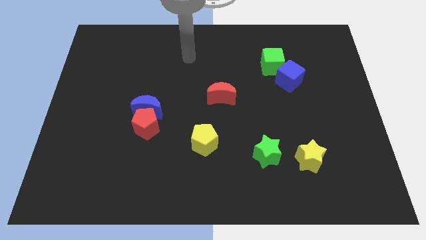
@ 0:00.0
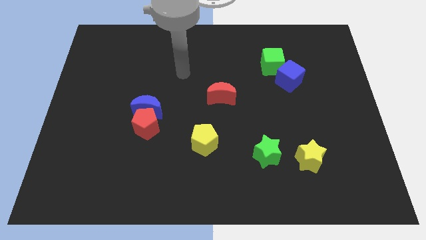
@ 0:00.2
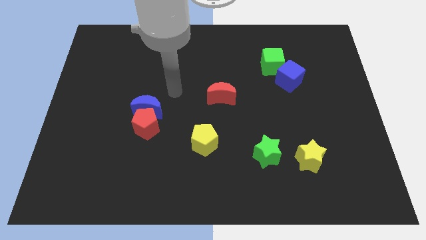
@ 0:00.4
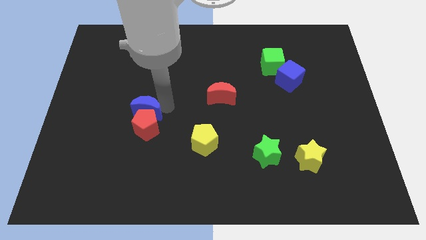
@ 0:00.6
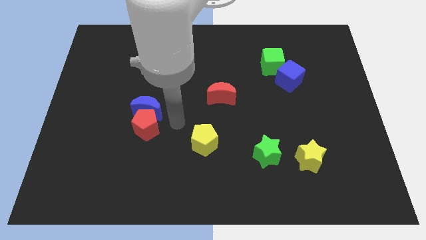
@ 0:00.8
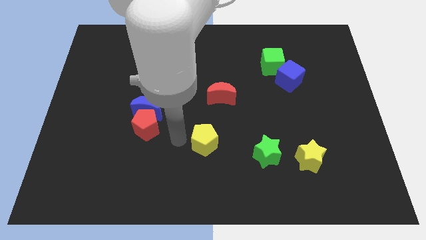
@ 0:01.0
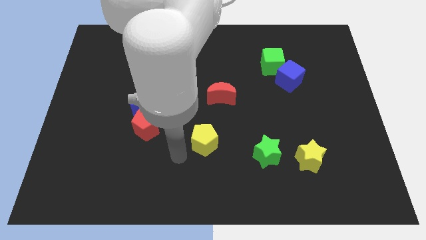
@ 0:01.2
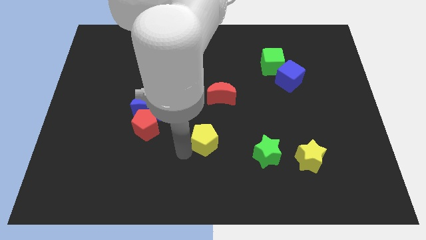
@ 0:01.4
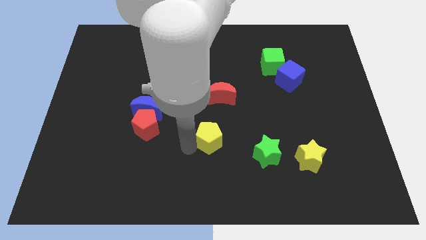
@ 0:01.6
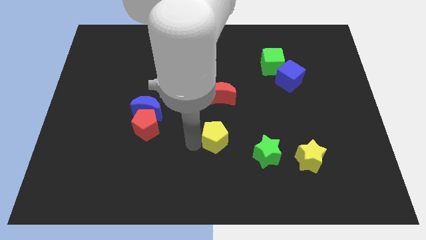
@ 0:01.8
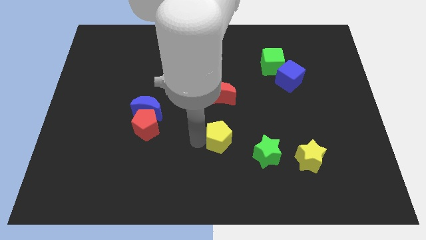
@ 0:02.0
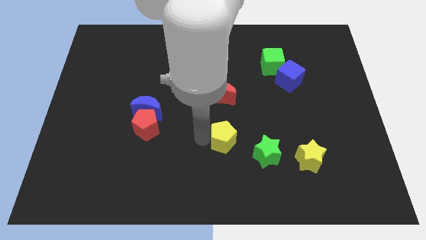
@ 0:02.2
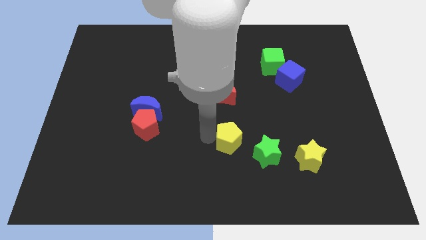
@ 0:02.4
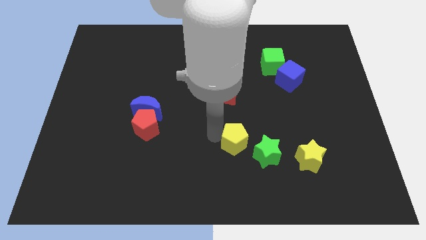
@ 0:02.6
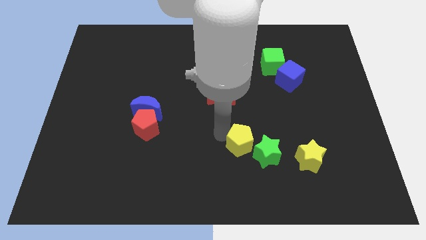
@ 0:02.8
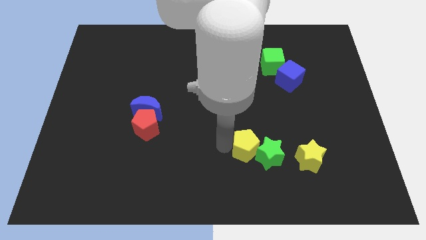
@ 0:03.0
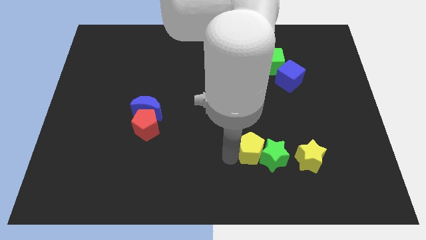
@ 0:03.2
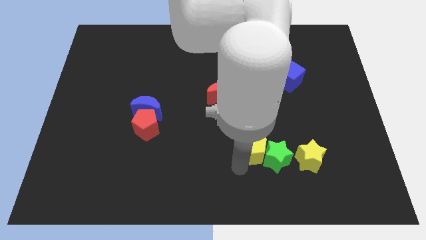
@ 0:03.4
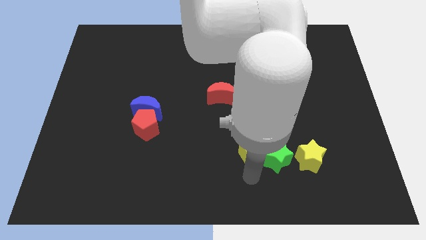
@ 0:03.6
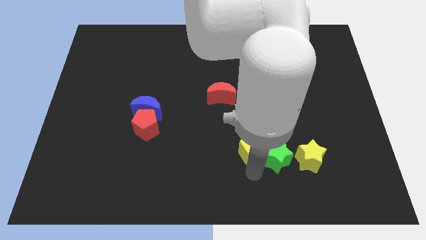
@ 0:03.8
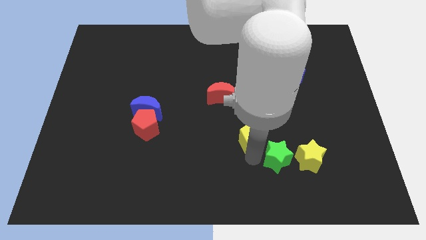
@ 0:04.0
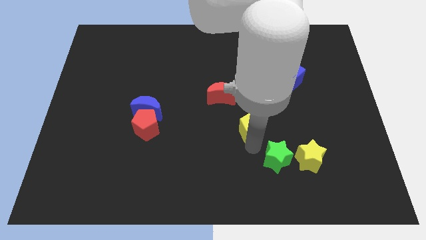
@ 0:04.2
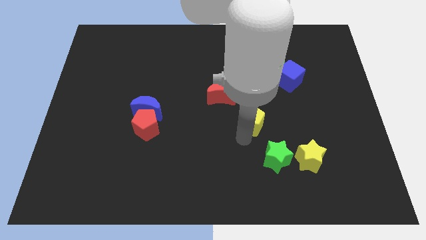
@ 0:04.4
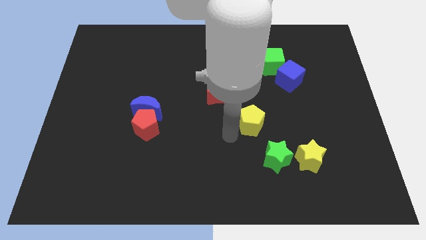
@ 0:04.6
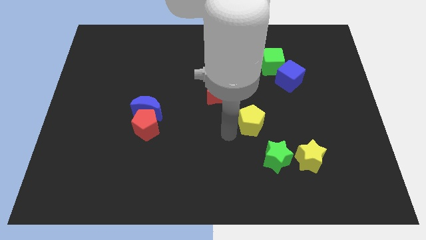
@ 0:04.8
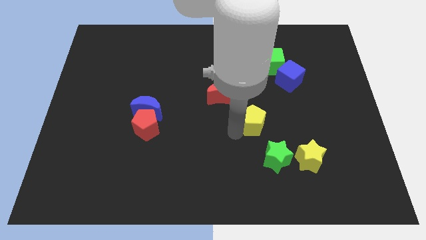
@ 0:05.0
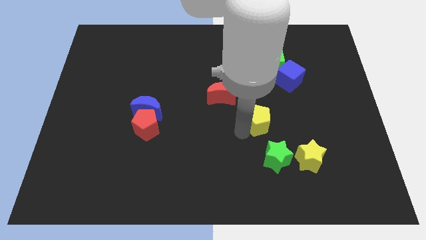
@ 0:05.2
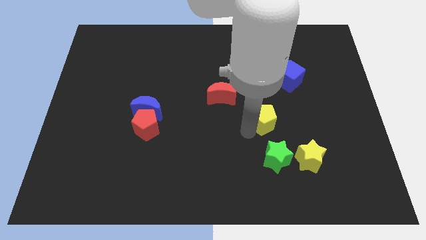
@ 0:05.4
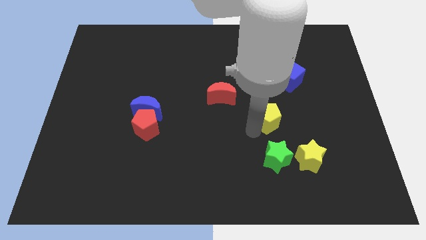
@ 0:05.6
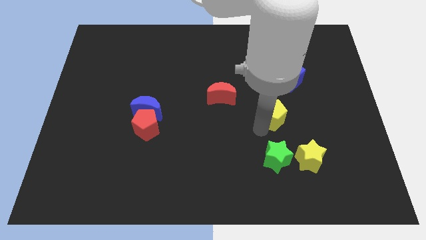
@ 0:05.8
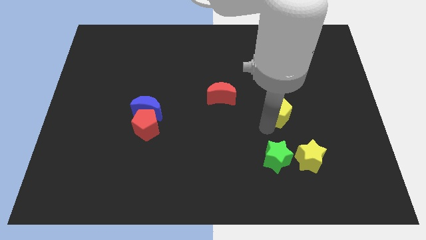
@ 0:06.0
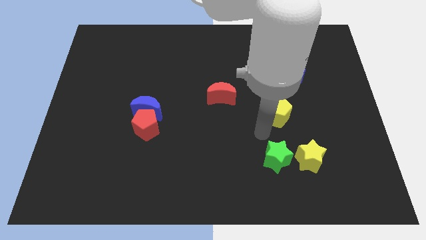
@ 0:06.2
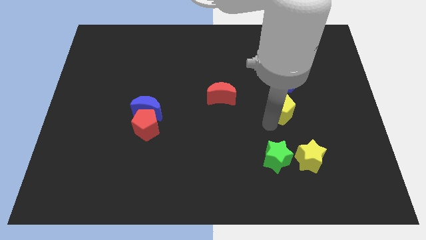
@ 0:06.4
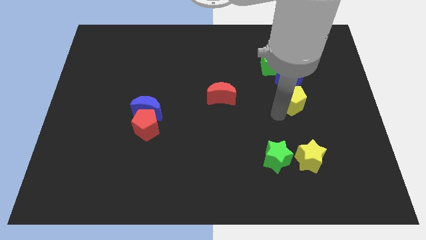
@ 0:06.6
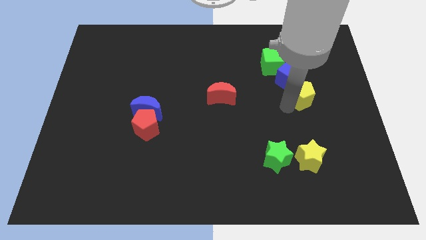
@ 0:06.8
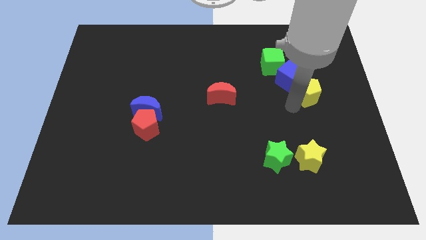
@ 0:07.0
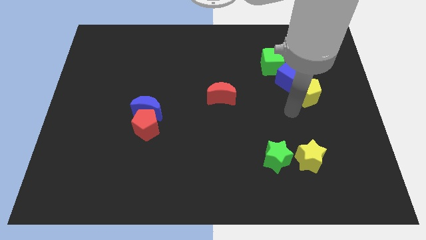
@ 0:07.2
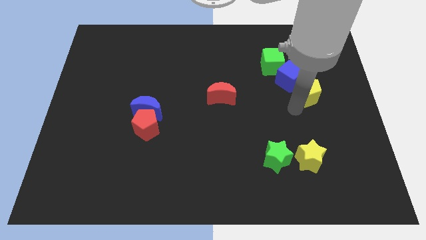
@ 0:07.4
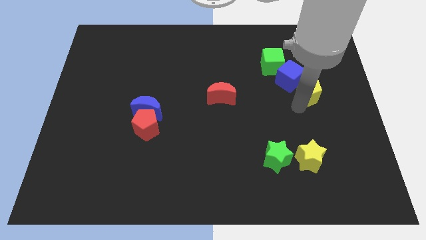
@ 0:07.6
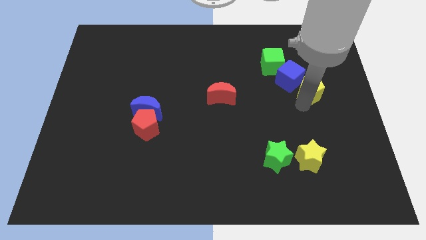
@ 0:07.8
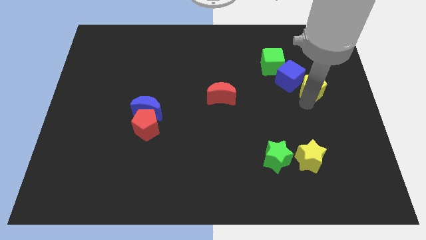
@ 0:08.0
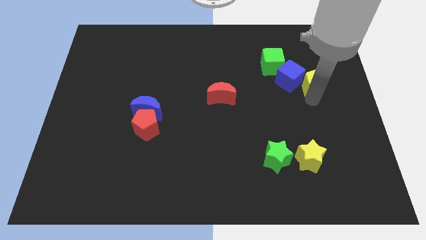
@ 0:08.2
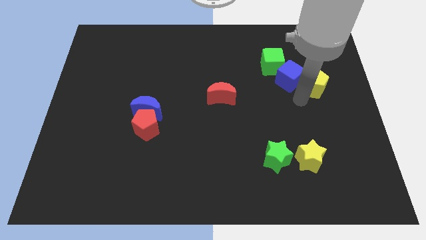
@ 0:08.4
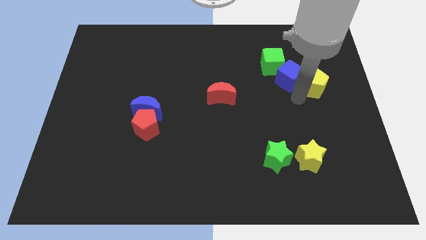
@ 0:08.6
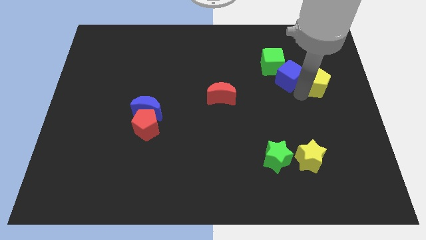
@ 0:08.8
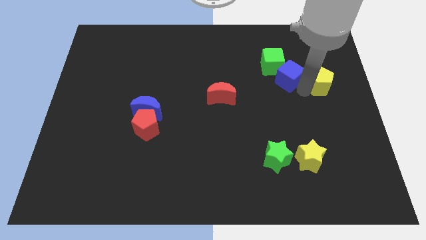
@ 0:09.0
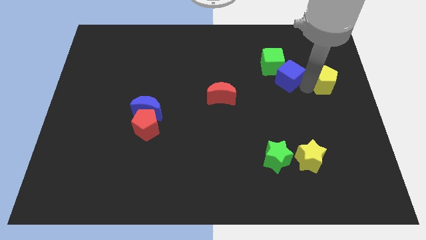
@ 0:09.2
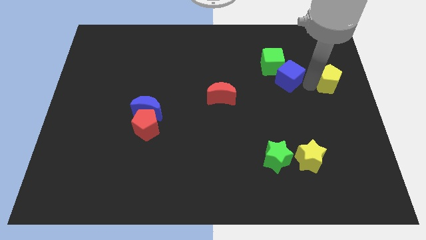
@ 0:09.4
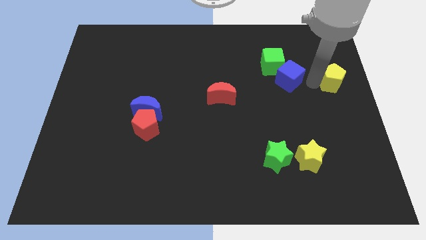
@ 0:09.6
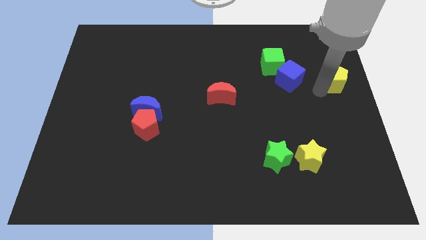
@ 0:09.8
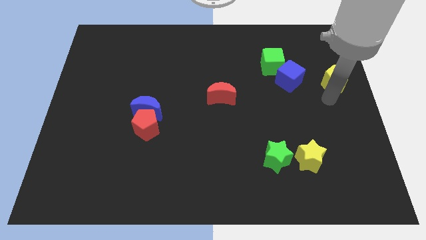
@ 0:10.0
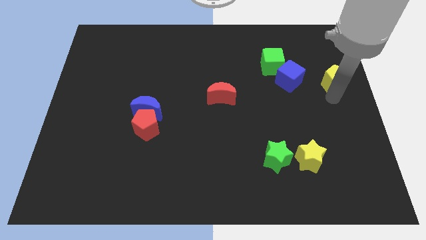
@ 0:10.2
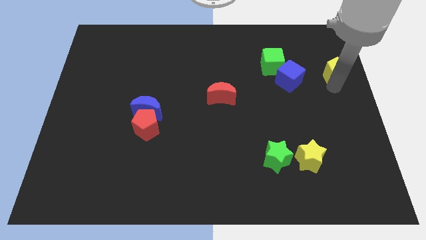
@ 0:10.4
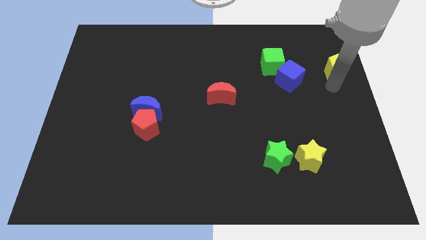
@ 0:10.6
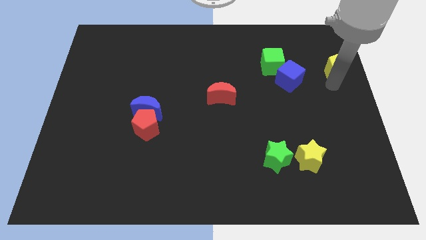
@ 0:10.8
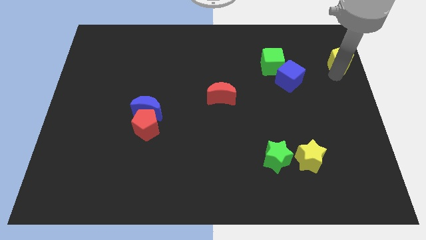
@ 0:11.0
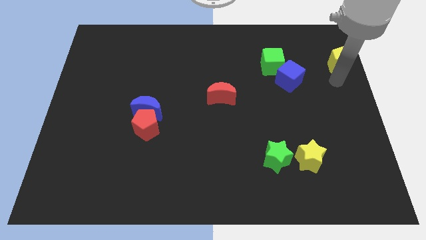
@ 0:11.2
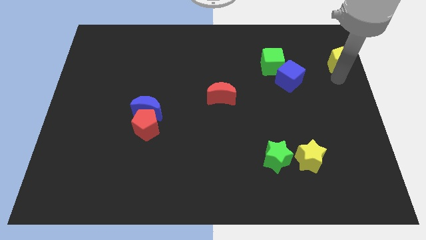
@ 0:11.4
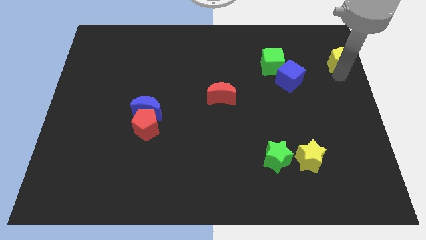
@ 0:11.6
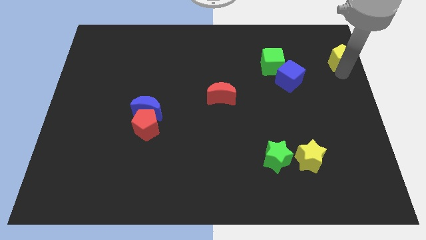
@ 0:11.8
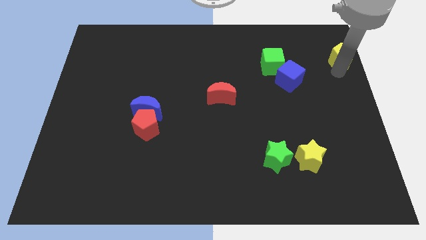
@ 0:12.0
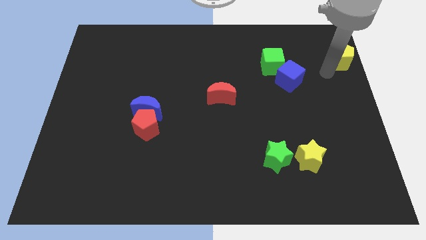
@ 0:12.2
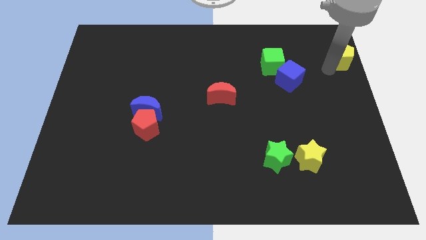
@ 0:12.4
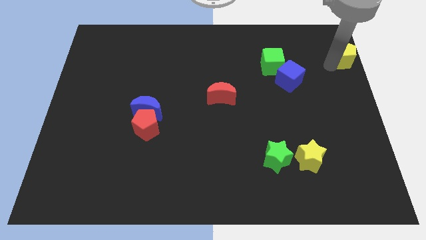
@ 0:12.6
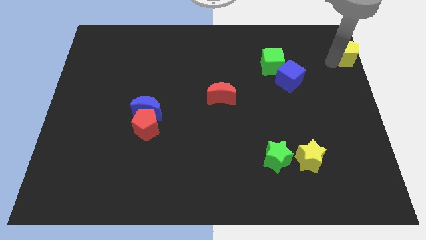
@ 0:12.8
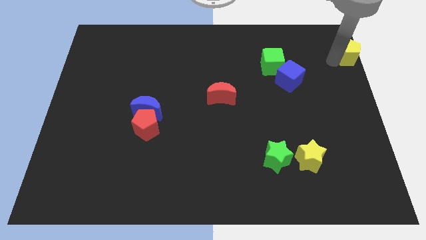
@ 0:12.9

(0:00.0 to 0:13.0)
put the yellow pentagon to the top right
